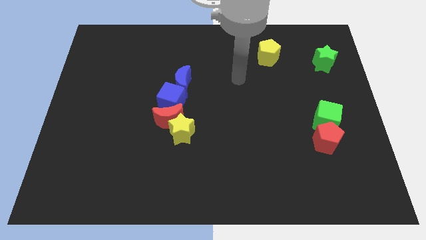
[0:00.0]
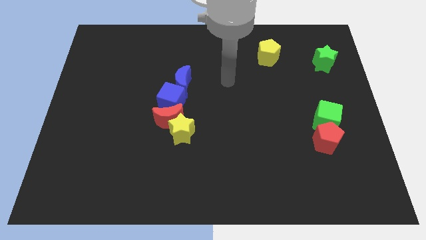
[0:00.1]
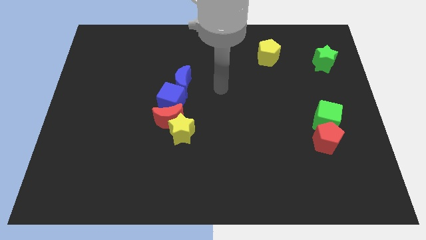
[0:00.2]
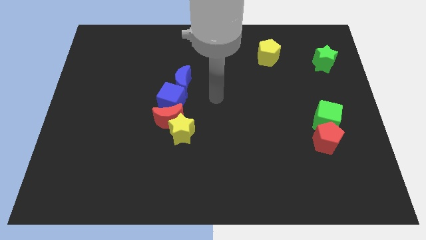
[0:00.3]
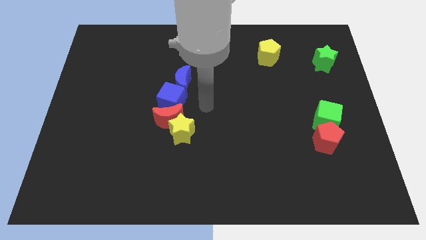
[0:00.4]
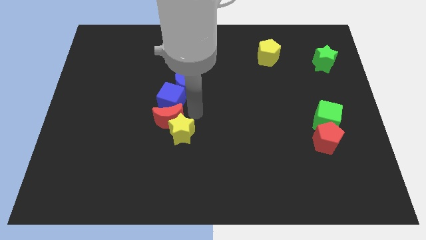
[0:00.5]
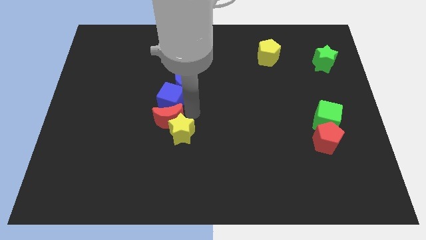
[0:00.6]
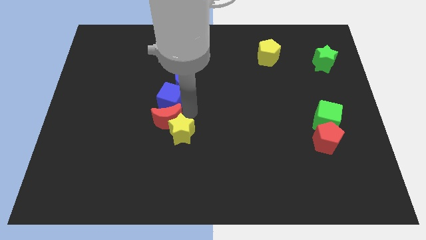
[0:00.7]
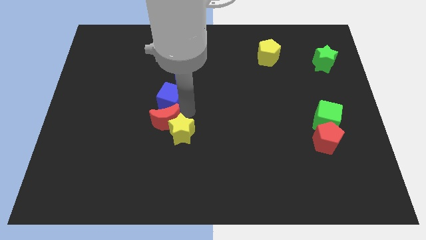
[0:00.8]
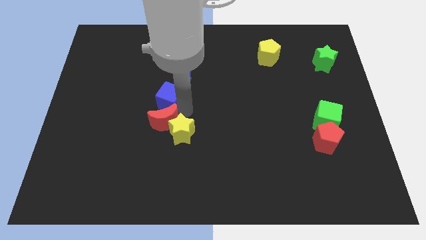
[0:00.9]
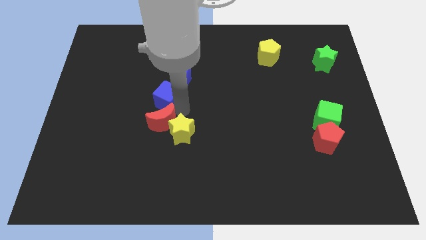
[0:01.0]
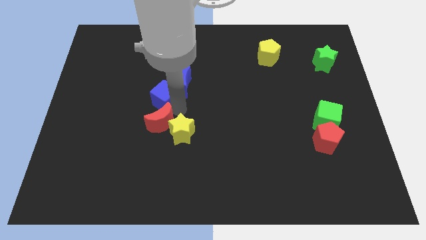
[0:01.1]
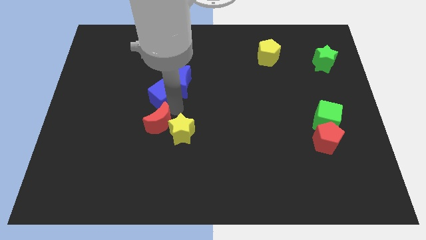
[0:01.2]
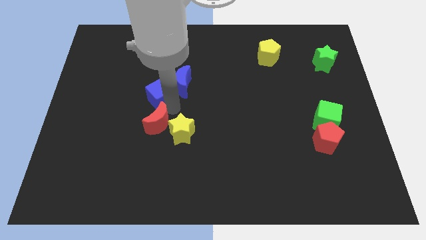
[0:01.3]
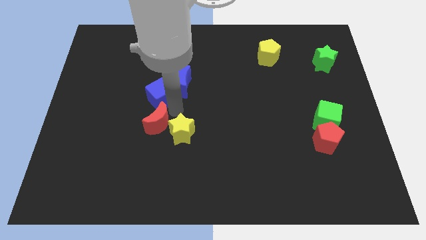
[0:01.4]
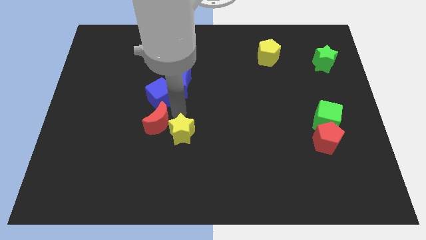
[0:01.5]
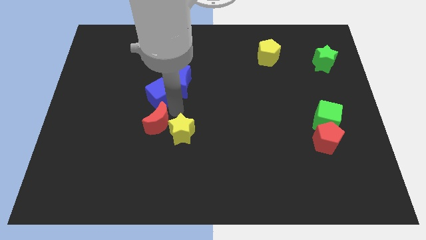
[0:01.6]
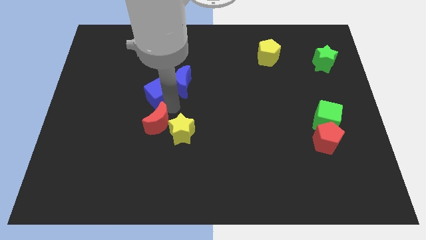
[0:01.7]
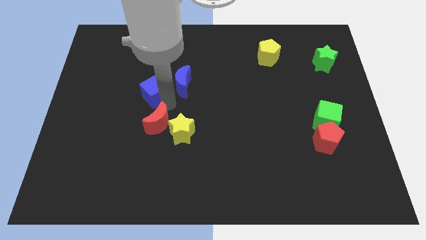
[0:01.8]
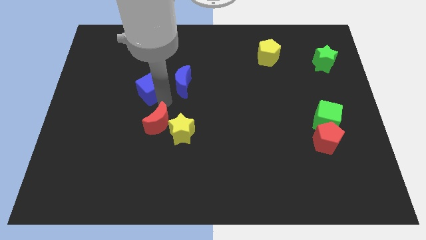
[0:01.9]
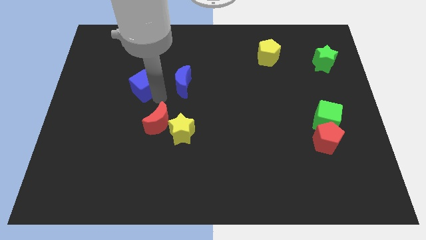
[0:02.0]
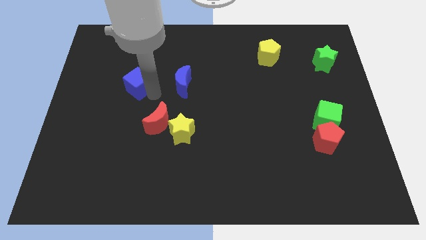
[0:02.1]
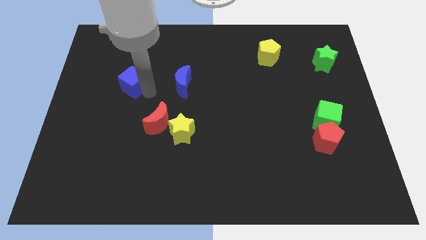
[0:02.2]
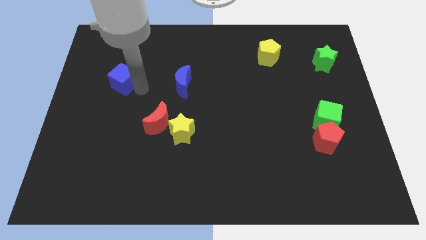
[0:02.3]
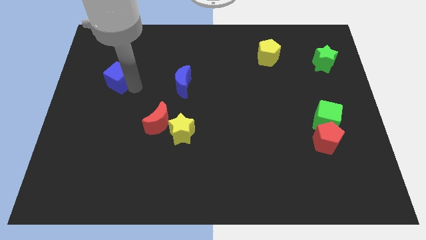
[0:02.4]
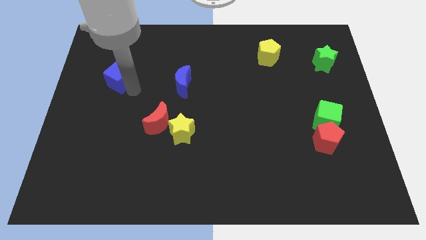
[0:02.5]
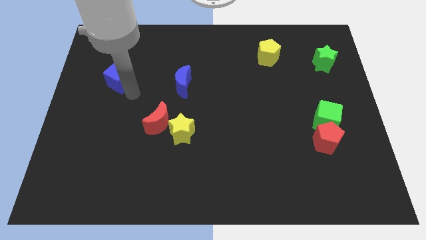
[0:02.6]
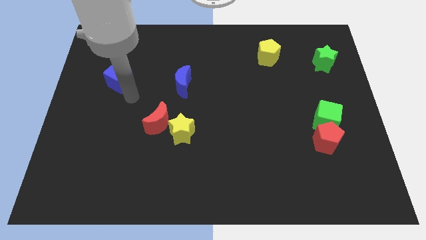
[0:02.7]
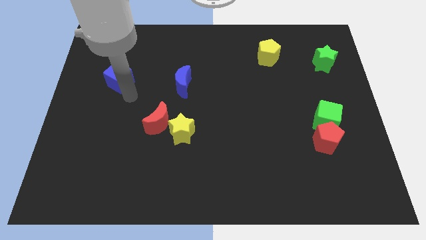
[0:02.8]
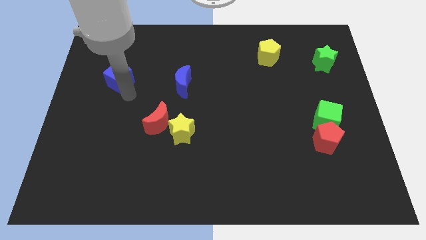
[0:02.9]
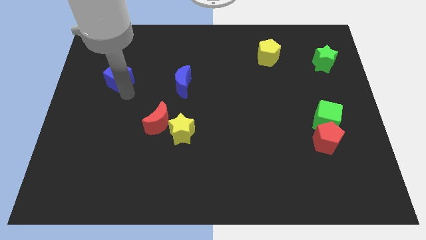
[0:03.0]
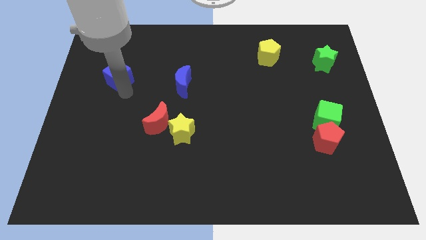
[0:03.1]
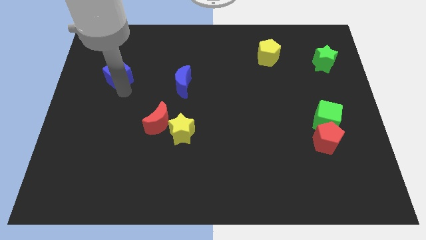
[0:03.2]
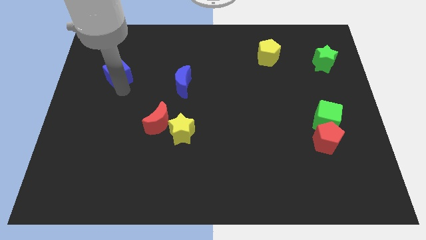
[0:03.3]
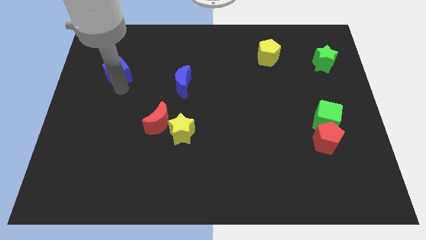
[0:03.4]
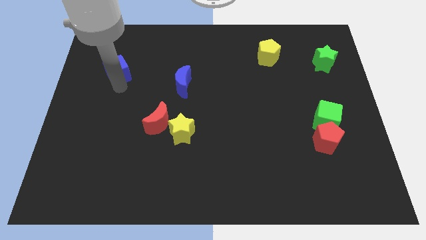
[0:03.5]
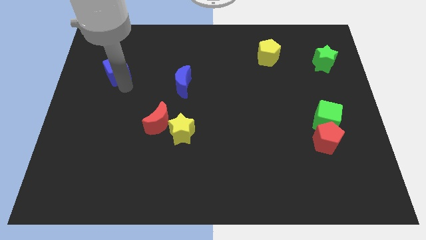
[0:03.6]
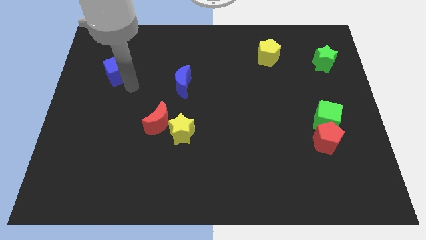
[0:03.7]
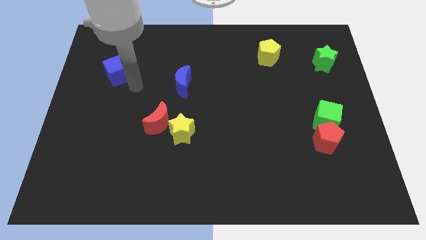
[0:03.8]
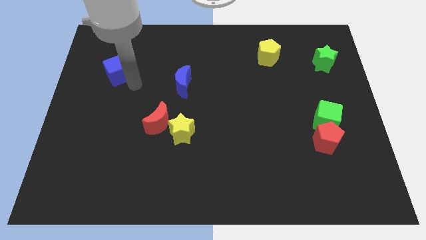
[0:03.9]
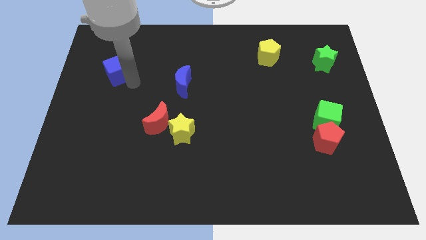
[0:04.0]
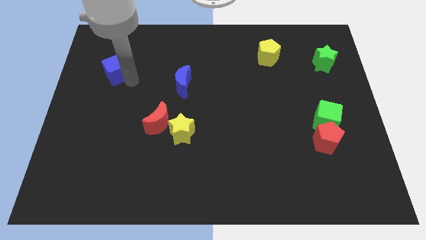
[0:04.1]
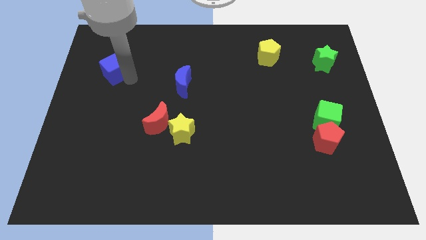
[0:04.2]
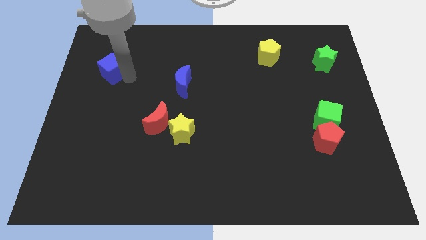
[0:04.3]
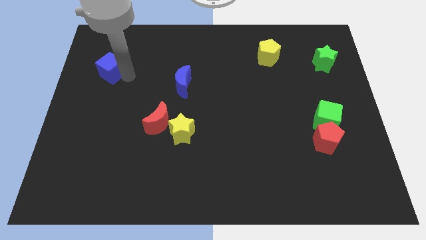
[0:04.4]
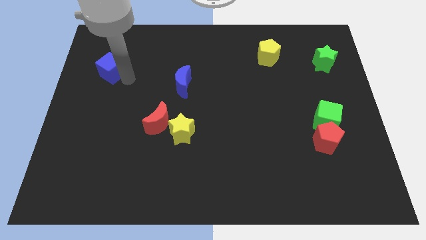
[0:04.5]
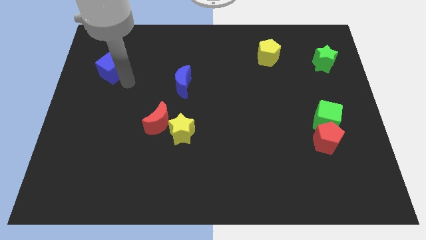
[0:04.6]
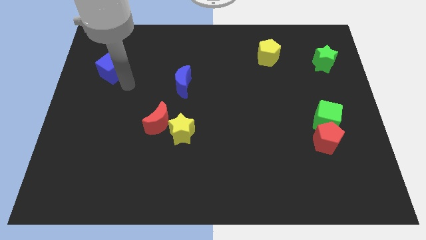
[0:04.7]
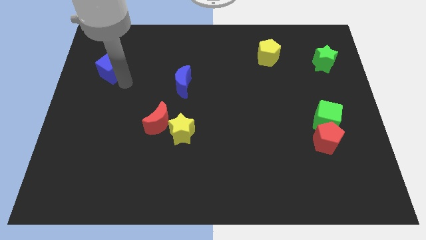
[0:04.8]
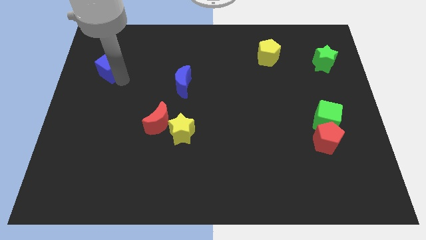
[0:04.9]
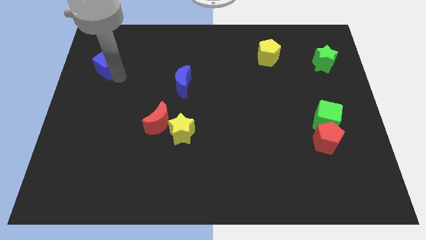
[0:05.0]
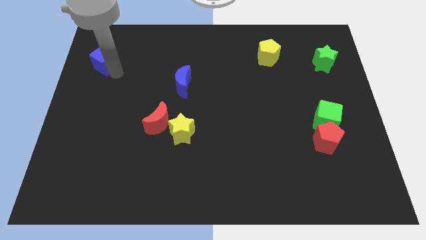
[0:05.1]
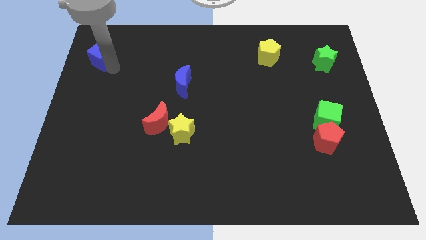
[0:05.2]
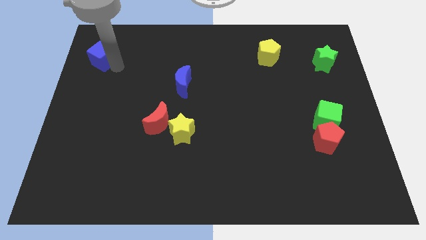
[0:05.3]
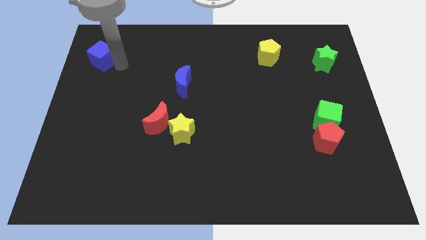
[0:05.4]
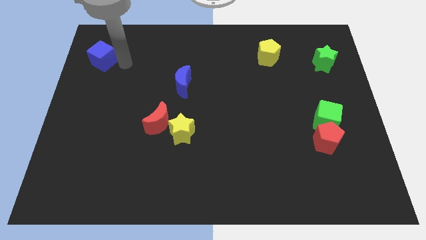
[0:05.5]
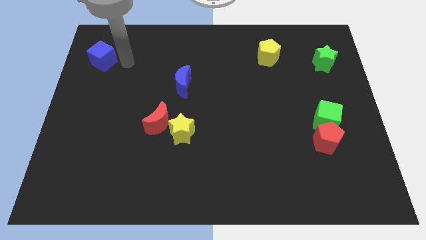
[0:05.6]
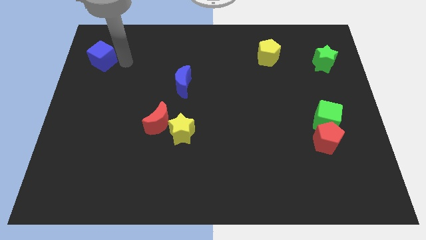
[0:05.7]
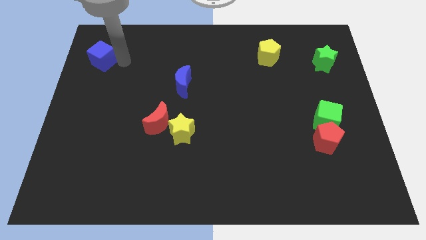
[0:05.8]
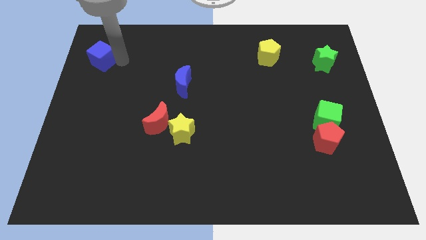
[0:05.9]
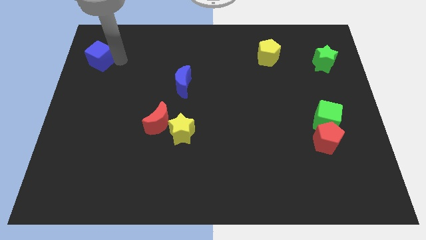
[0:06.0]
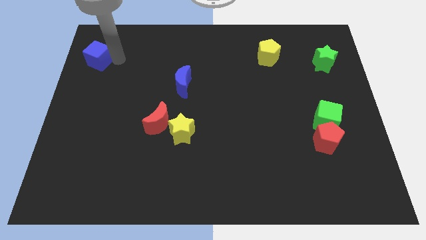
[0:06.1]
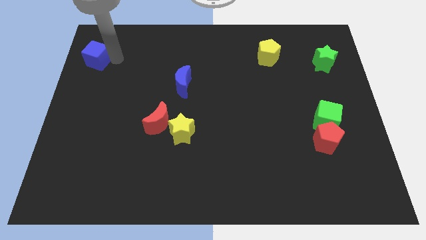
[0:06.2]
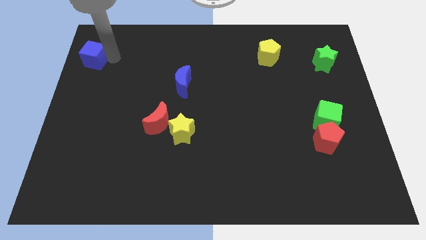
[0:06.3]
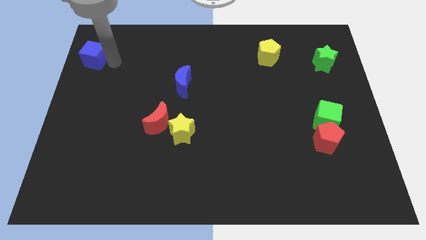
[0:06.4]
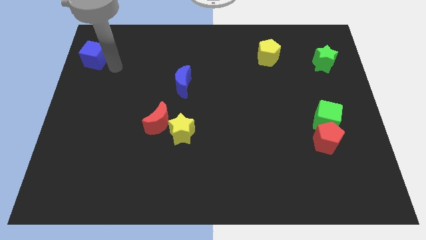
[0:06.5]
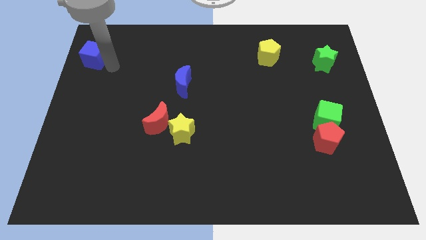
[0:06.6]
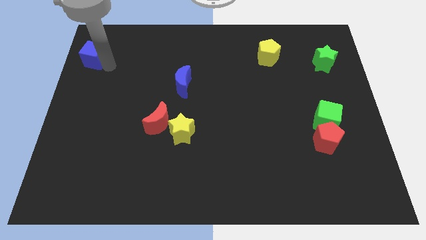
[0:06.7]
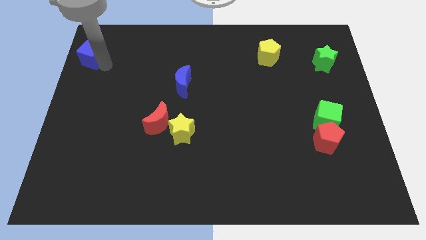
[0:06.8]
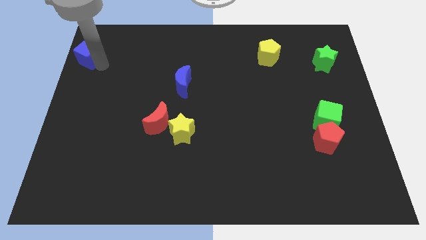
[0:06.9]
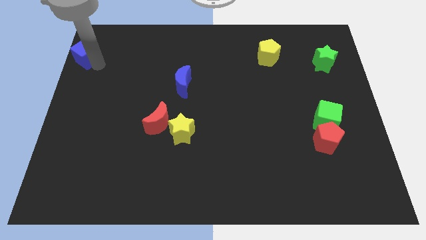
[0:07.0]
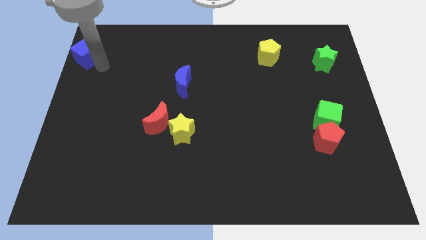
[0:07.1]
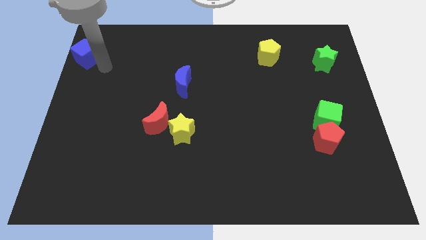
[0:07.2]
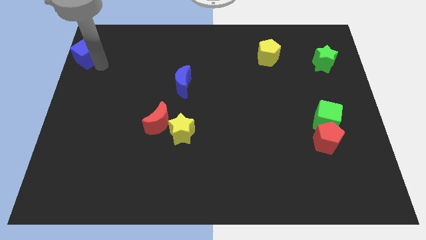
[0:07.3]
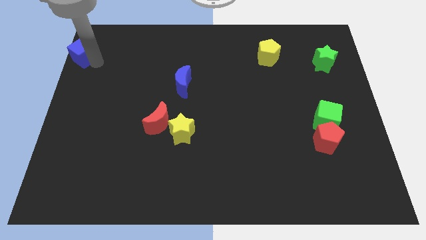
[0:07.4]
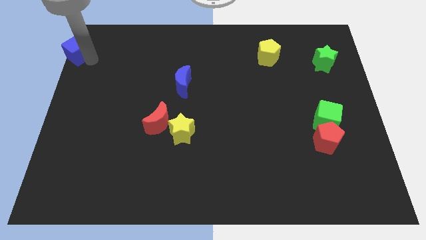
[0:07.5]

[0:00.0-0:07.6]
slide the blue cube to the top left of the board
